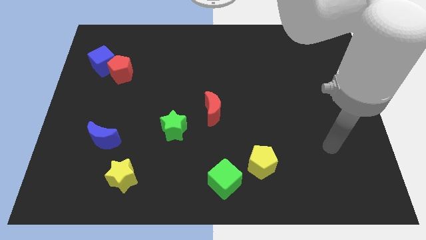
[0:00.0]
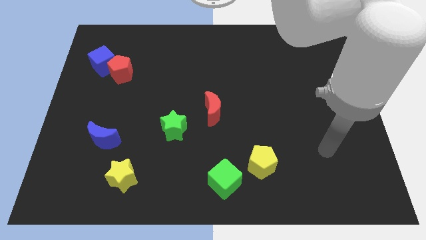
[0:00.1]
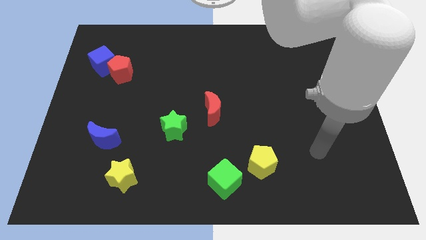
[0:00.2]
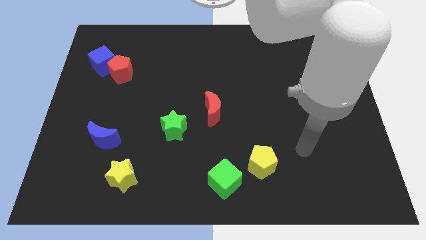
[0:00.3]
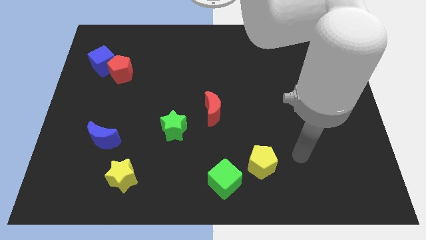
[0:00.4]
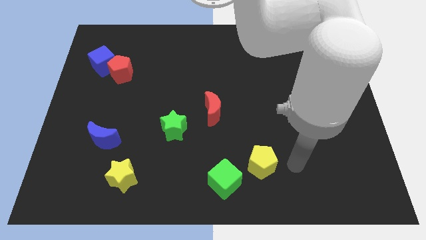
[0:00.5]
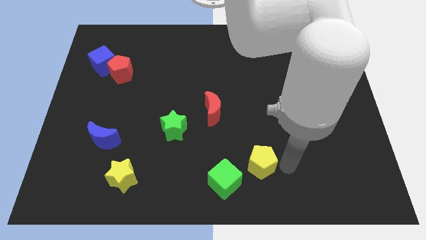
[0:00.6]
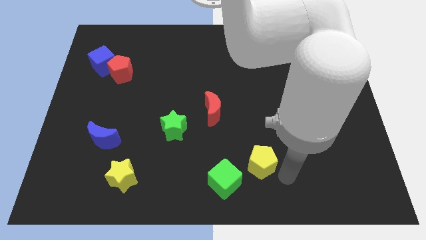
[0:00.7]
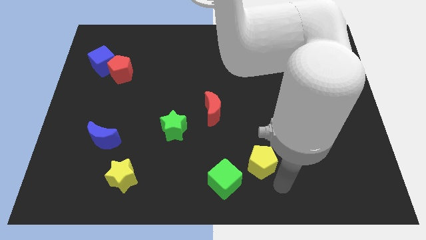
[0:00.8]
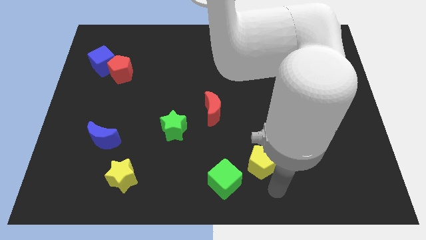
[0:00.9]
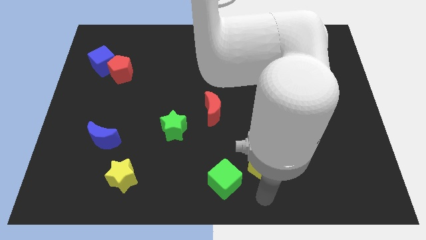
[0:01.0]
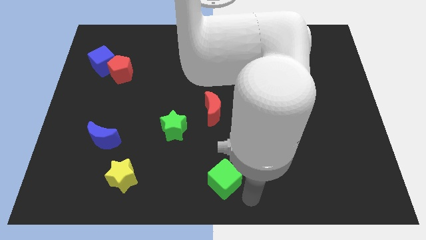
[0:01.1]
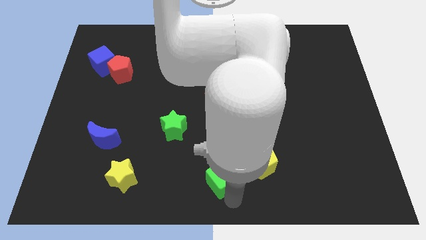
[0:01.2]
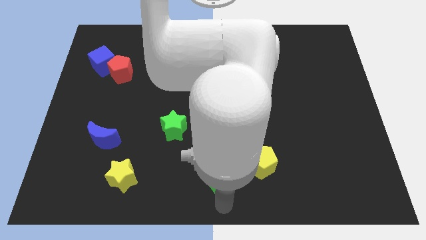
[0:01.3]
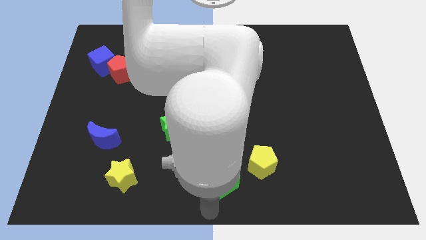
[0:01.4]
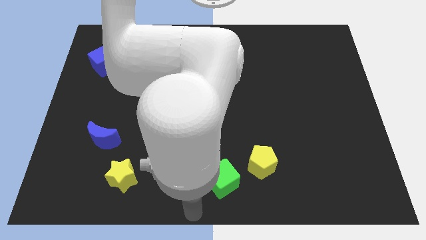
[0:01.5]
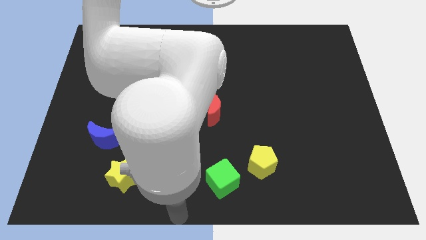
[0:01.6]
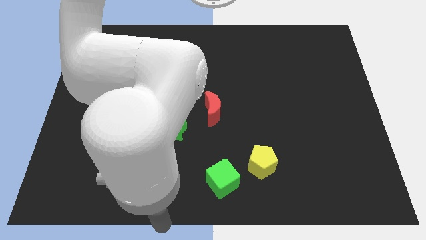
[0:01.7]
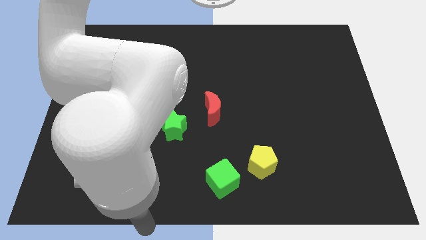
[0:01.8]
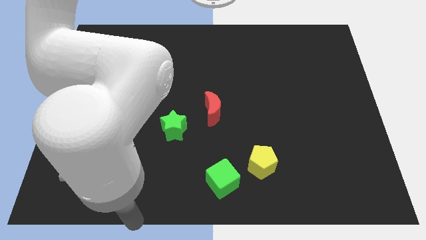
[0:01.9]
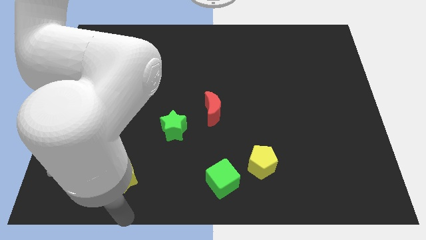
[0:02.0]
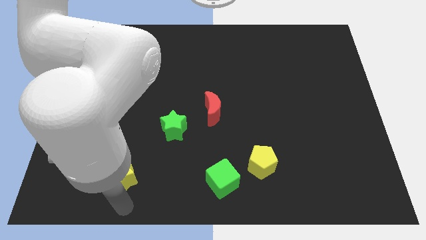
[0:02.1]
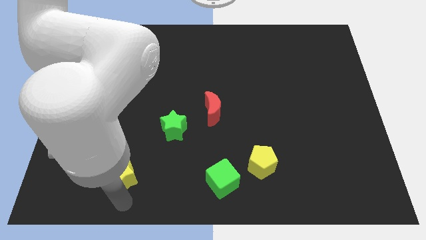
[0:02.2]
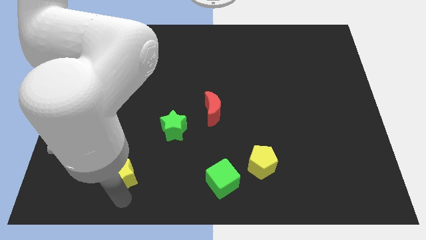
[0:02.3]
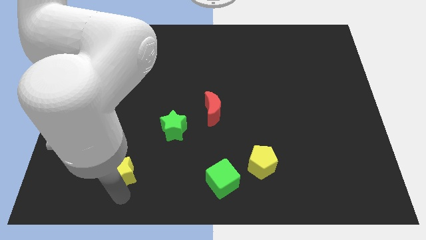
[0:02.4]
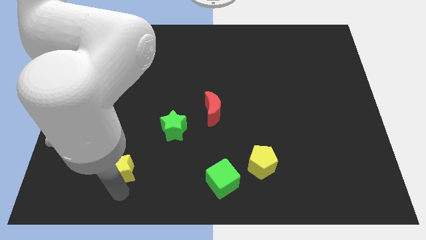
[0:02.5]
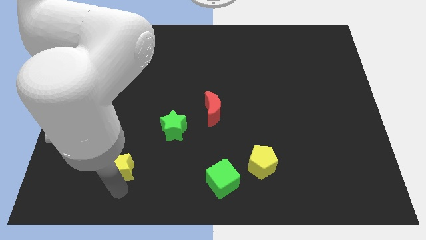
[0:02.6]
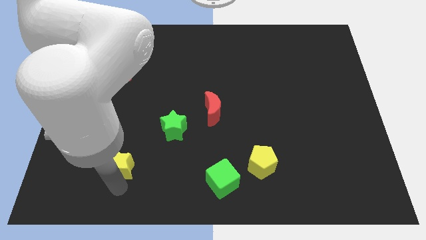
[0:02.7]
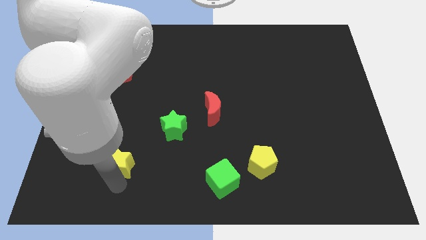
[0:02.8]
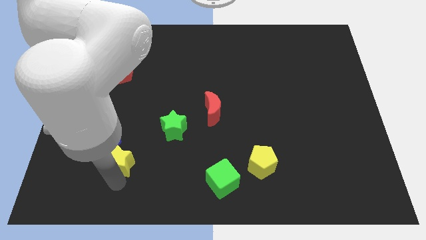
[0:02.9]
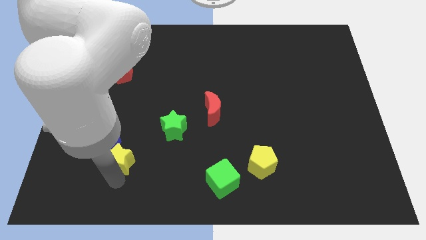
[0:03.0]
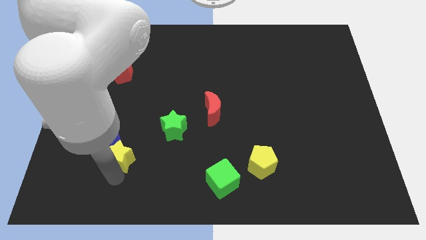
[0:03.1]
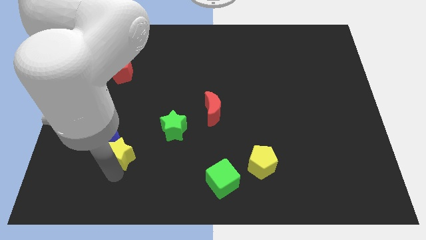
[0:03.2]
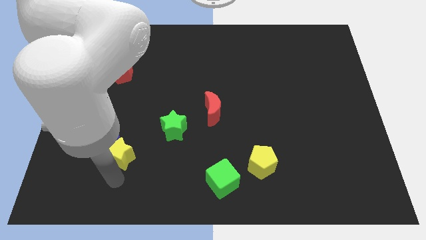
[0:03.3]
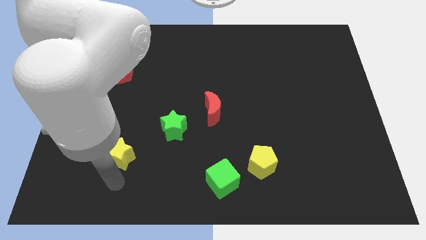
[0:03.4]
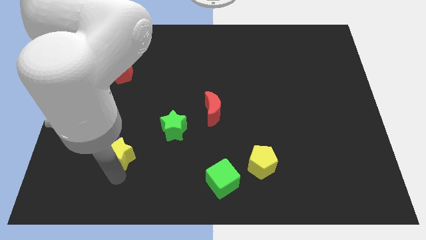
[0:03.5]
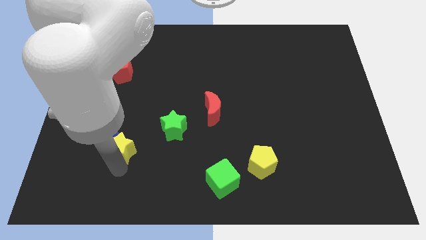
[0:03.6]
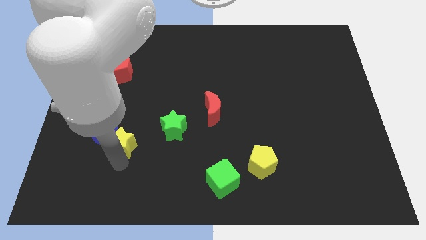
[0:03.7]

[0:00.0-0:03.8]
slightly push the yellow star up

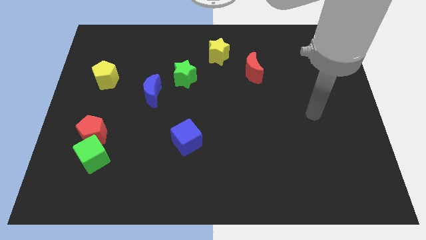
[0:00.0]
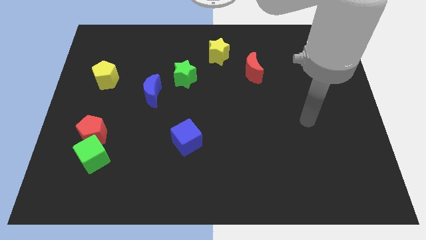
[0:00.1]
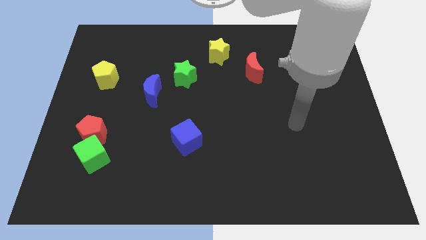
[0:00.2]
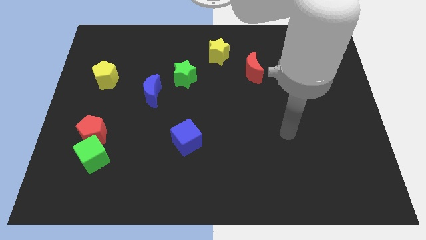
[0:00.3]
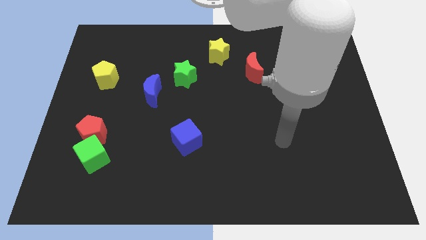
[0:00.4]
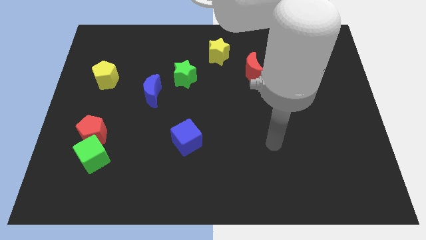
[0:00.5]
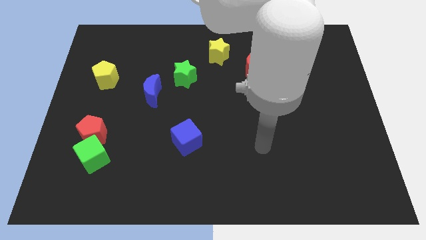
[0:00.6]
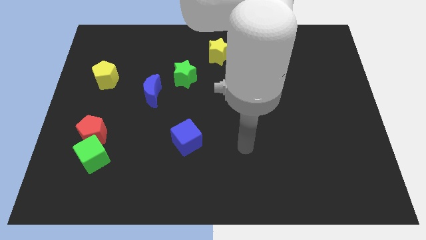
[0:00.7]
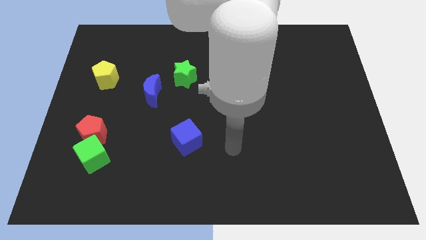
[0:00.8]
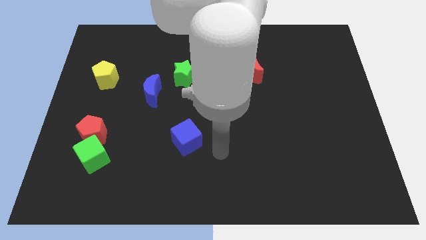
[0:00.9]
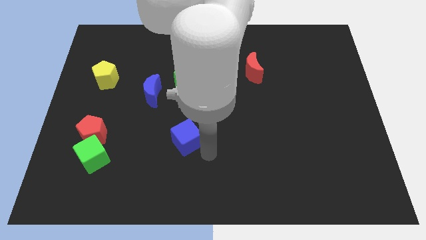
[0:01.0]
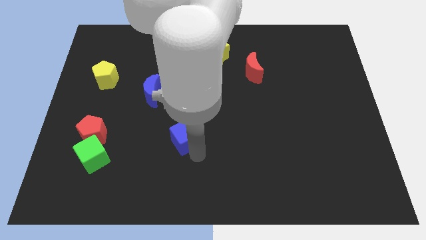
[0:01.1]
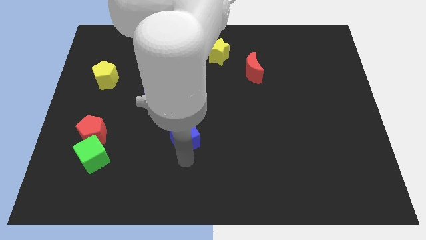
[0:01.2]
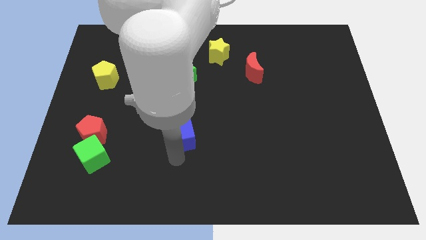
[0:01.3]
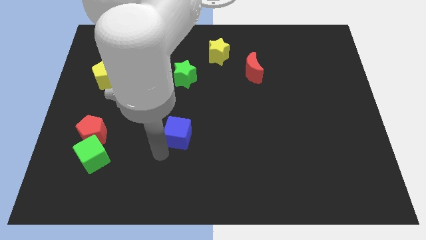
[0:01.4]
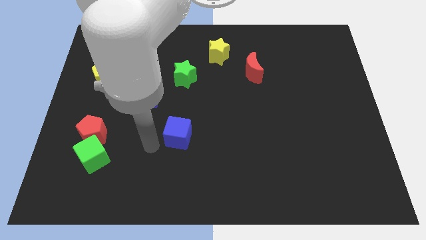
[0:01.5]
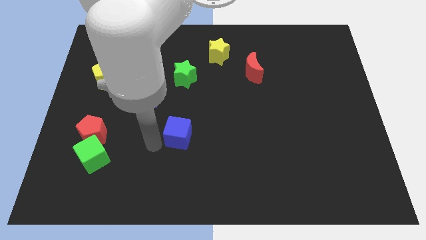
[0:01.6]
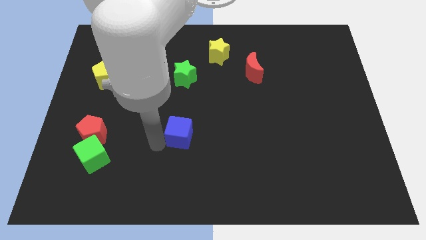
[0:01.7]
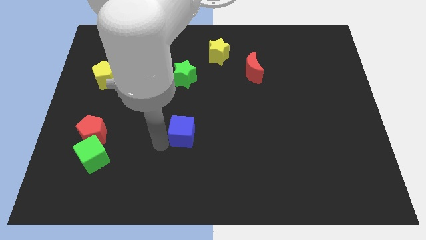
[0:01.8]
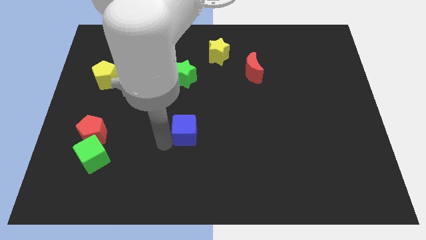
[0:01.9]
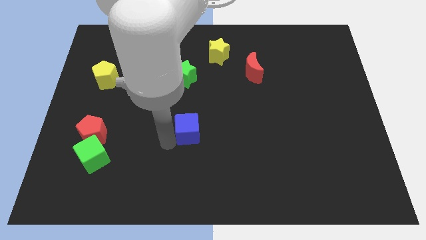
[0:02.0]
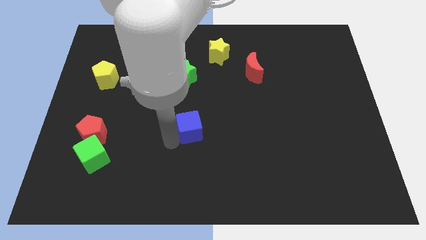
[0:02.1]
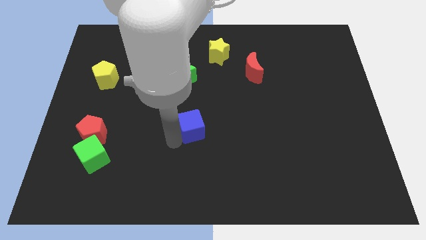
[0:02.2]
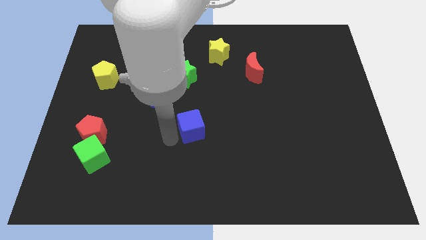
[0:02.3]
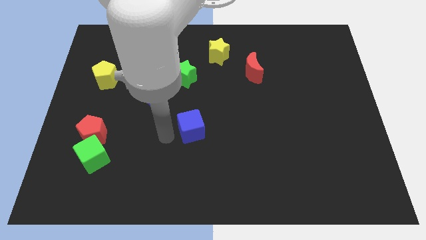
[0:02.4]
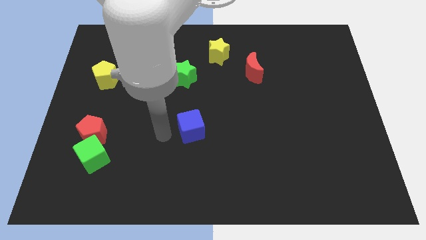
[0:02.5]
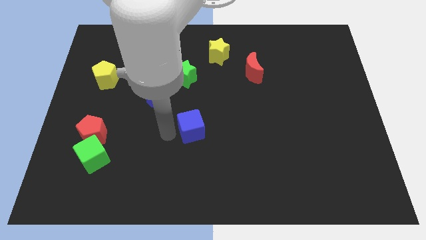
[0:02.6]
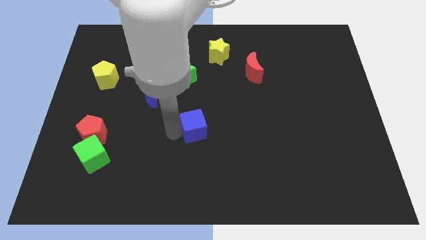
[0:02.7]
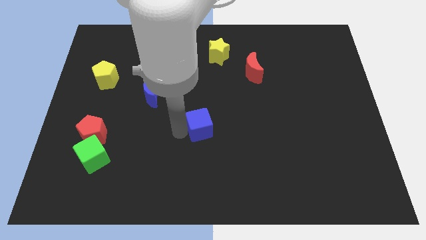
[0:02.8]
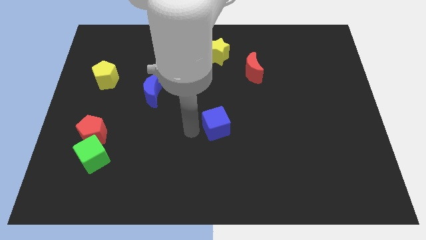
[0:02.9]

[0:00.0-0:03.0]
move the blue cube diagonally upwards and right somewhat

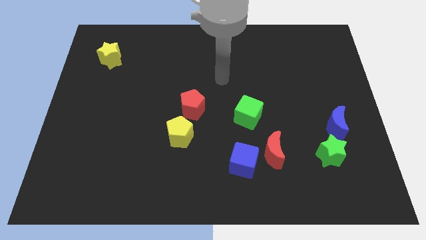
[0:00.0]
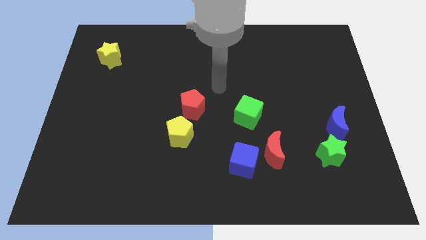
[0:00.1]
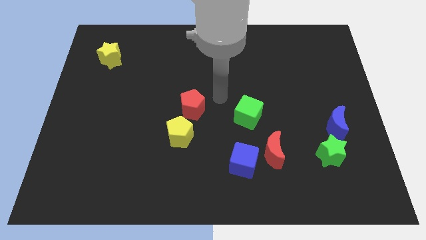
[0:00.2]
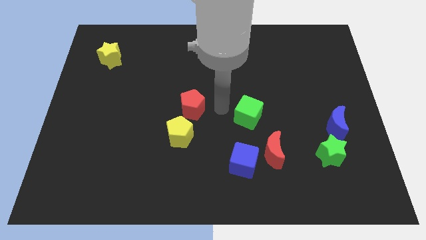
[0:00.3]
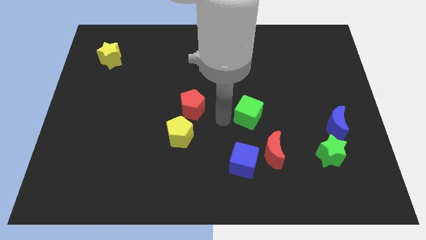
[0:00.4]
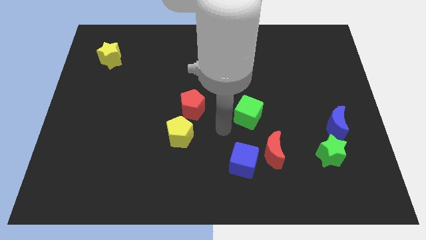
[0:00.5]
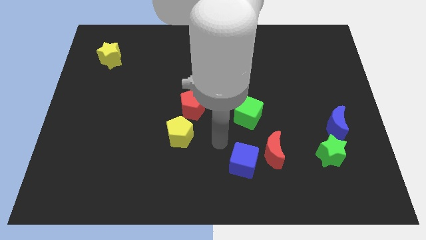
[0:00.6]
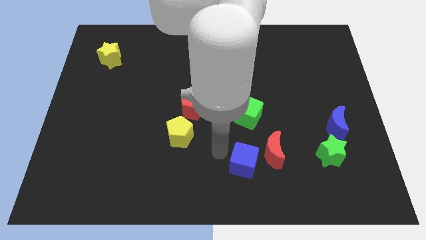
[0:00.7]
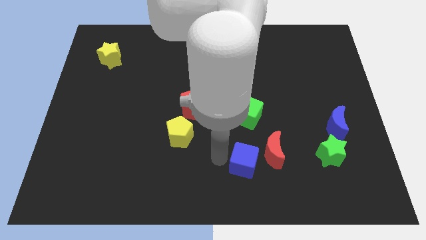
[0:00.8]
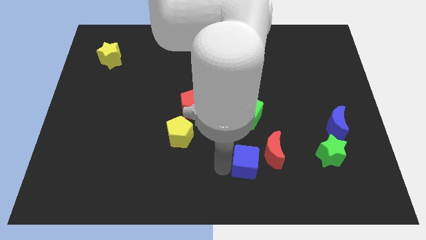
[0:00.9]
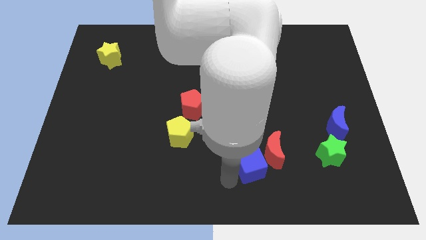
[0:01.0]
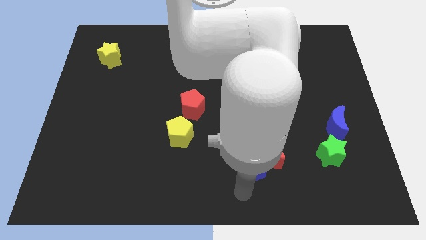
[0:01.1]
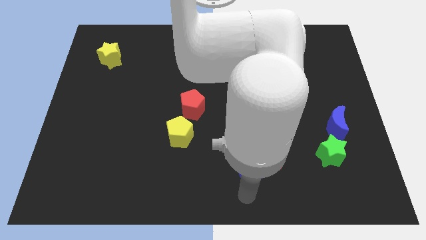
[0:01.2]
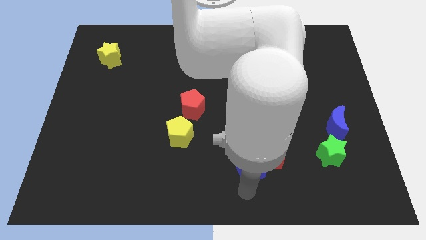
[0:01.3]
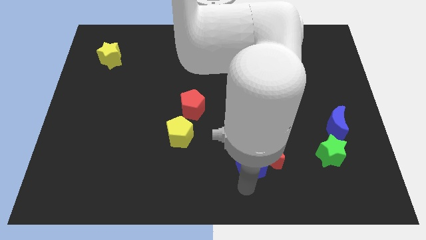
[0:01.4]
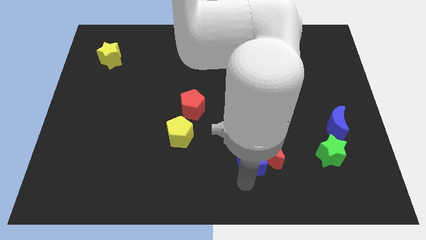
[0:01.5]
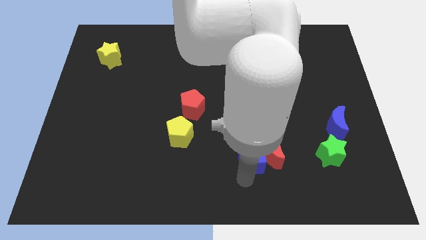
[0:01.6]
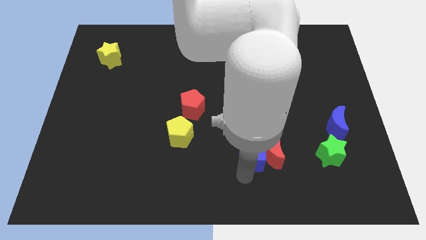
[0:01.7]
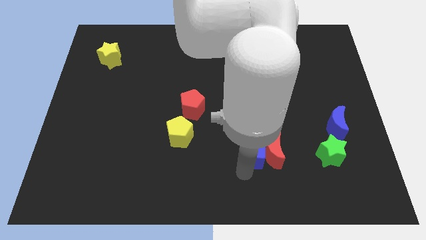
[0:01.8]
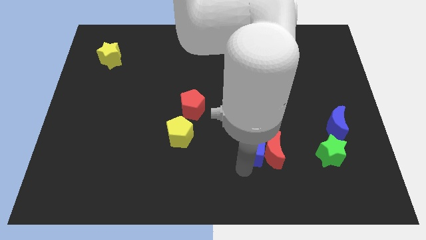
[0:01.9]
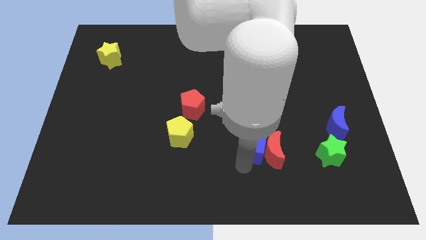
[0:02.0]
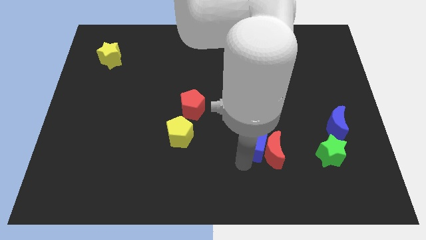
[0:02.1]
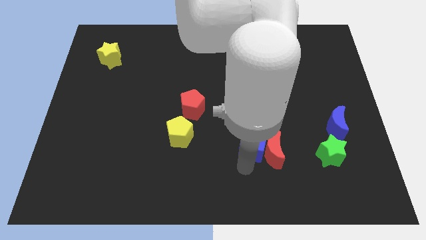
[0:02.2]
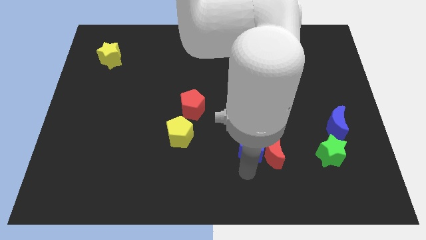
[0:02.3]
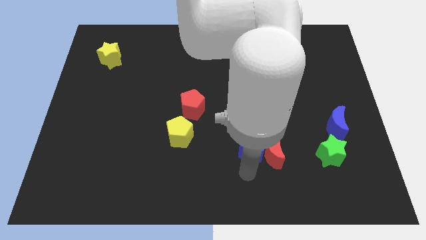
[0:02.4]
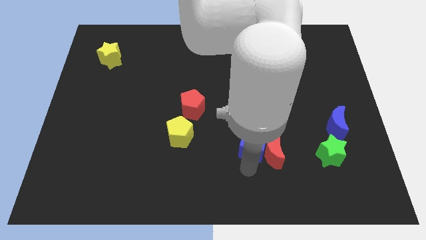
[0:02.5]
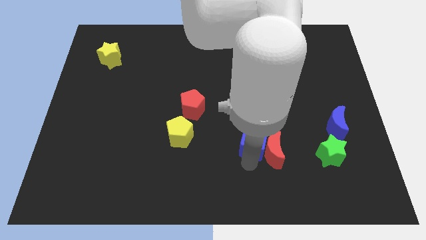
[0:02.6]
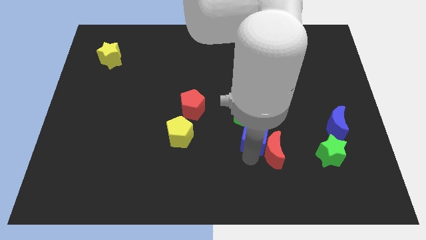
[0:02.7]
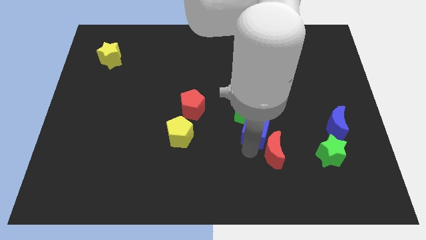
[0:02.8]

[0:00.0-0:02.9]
slightly slide the blue cube upwards and right diagonally
